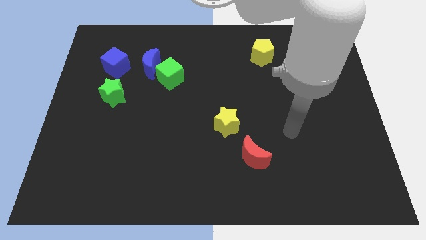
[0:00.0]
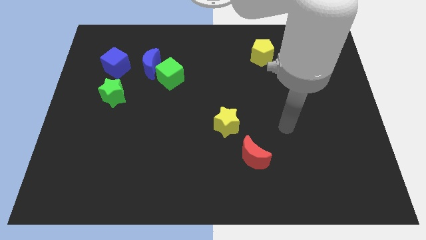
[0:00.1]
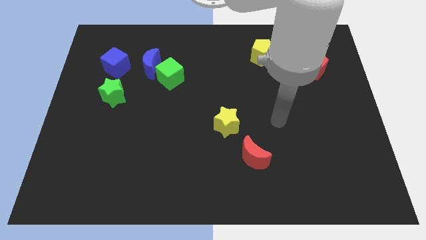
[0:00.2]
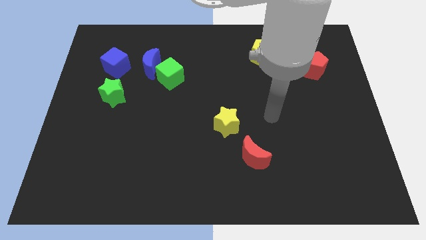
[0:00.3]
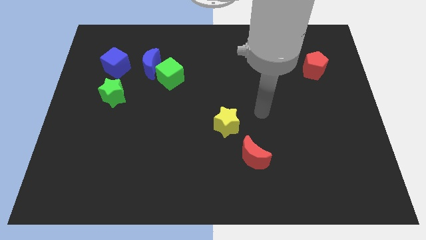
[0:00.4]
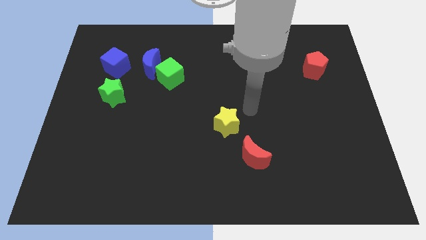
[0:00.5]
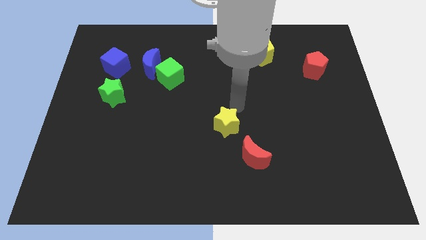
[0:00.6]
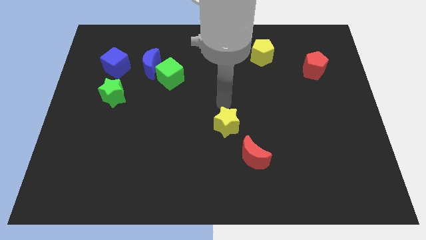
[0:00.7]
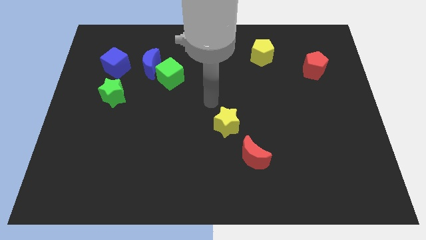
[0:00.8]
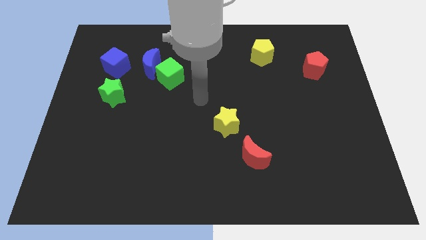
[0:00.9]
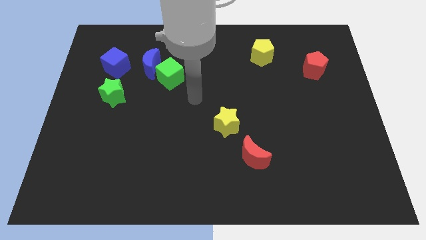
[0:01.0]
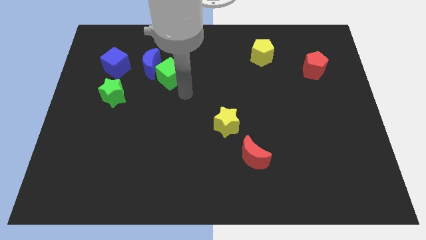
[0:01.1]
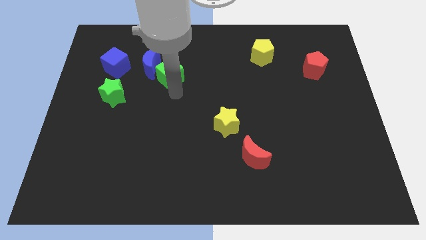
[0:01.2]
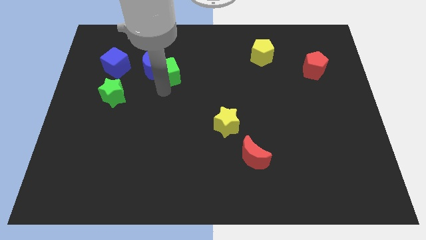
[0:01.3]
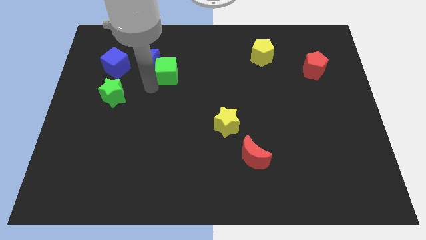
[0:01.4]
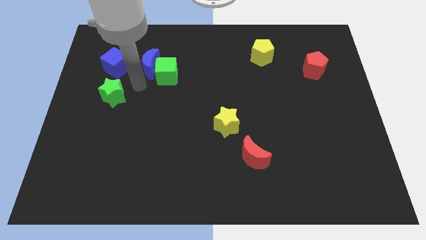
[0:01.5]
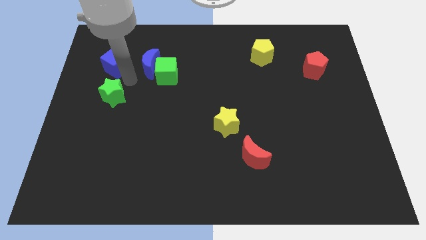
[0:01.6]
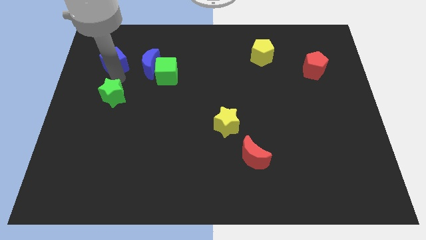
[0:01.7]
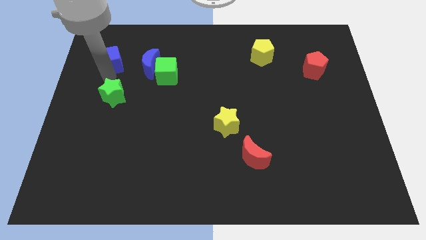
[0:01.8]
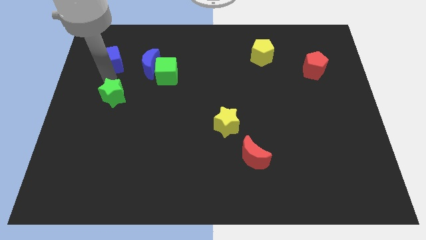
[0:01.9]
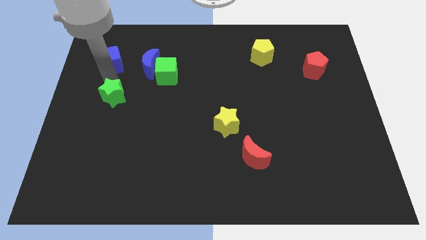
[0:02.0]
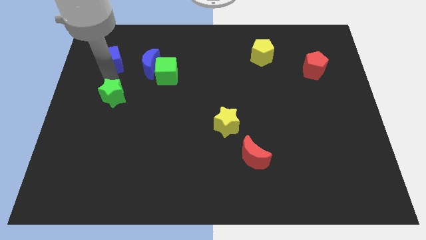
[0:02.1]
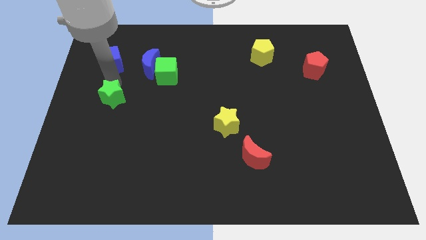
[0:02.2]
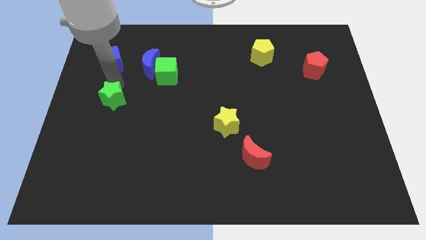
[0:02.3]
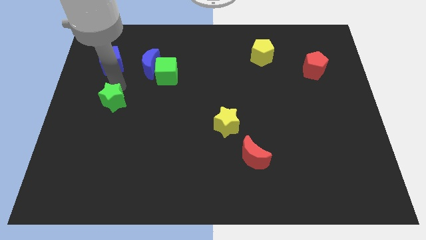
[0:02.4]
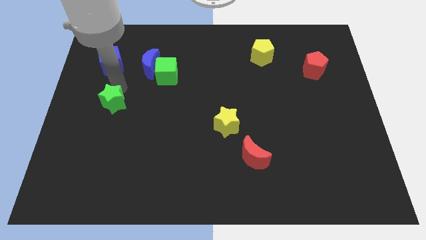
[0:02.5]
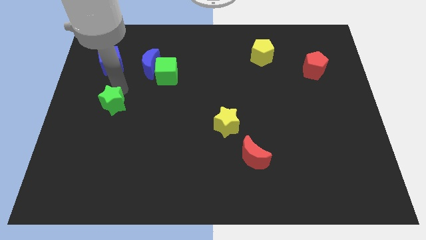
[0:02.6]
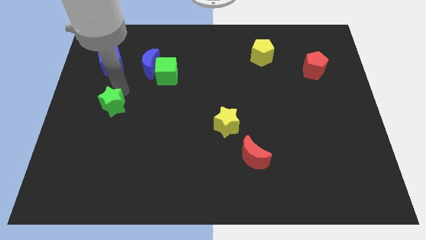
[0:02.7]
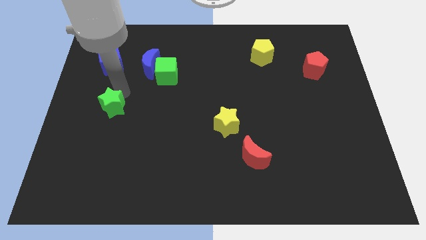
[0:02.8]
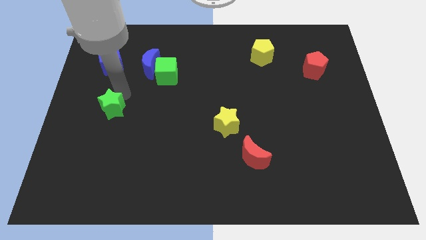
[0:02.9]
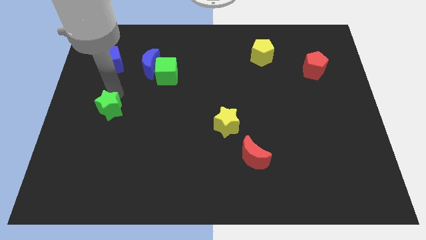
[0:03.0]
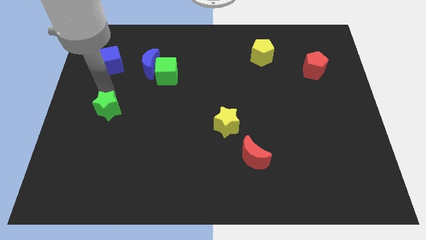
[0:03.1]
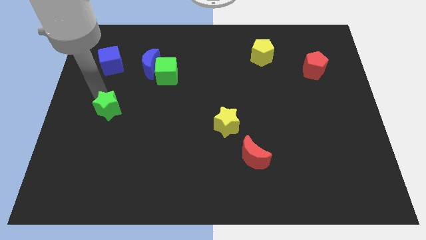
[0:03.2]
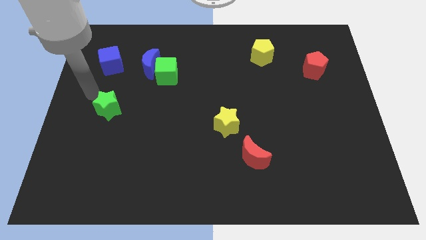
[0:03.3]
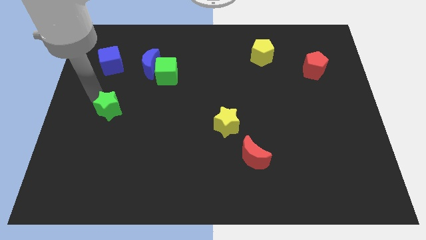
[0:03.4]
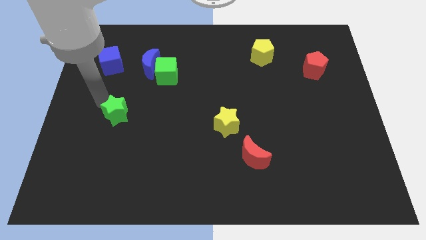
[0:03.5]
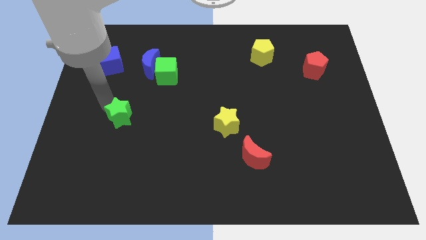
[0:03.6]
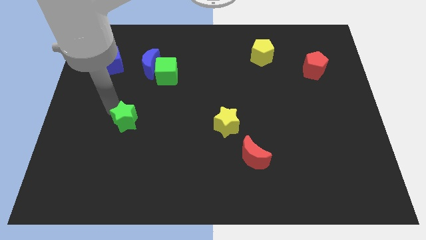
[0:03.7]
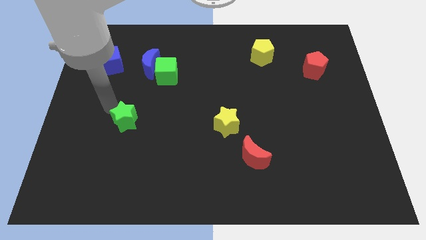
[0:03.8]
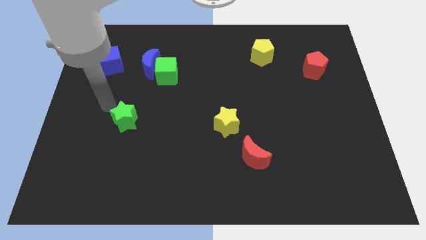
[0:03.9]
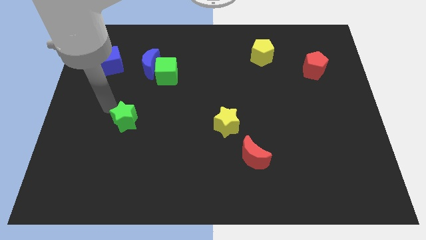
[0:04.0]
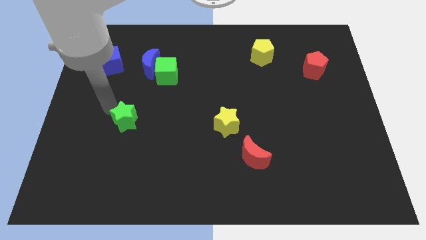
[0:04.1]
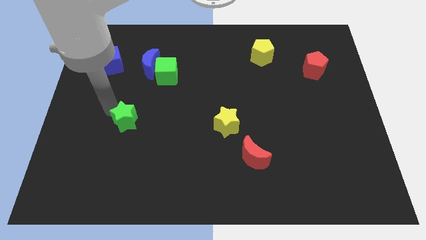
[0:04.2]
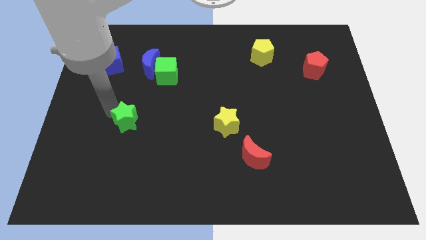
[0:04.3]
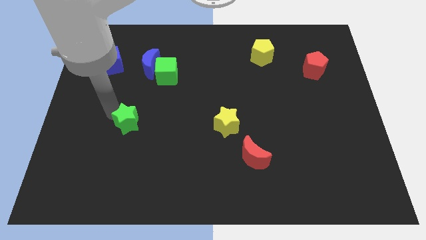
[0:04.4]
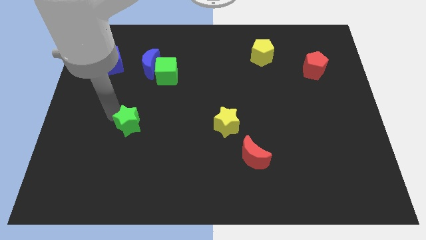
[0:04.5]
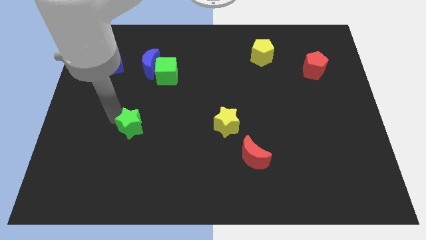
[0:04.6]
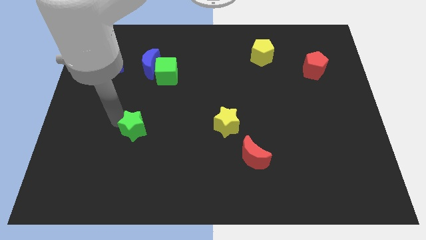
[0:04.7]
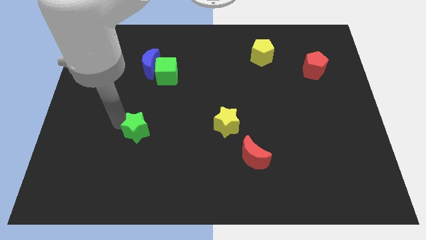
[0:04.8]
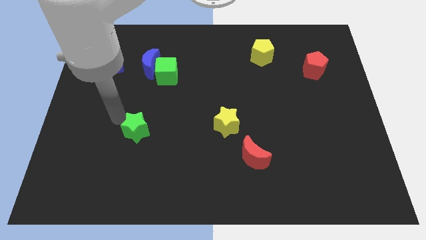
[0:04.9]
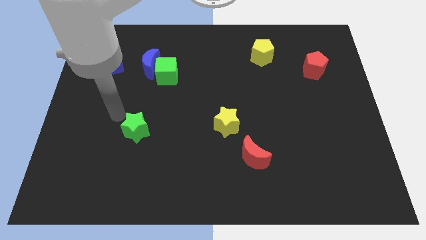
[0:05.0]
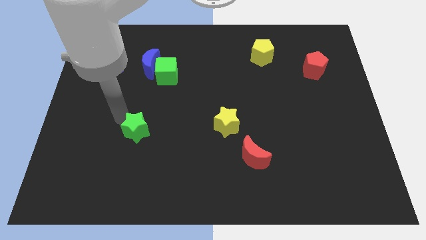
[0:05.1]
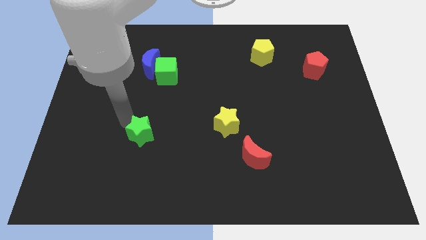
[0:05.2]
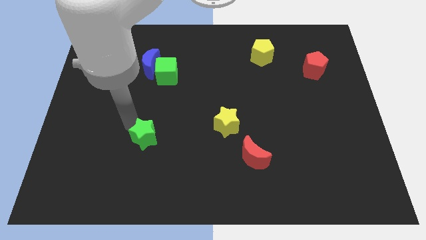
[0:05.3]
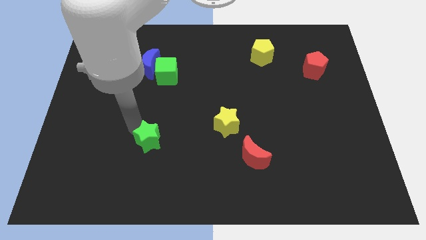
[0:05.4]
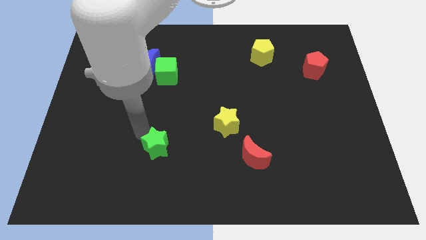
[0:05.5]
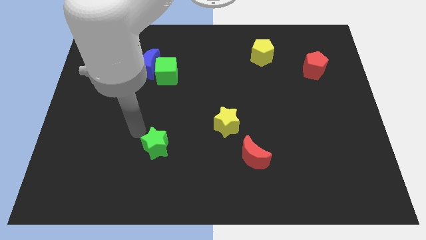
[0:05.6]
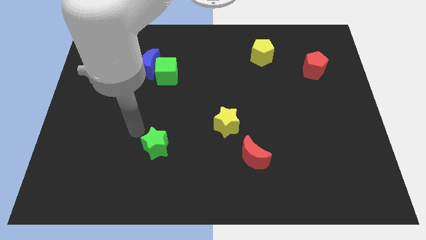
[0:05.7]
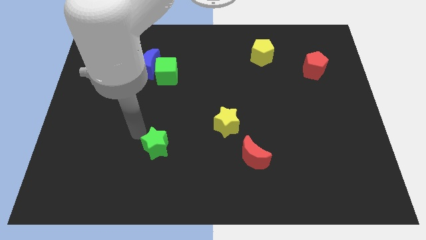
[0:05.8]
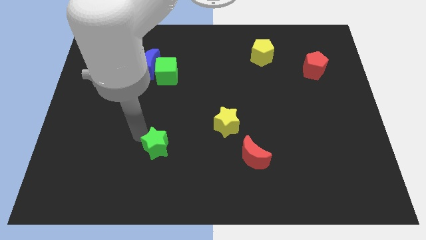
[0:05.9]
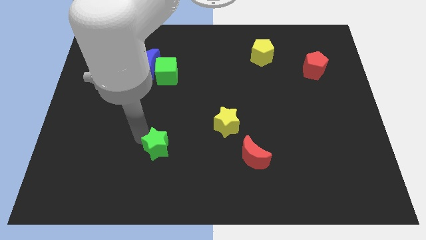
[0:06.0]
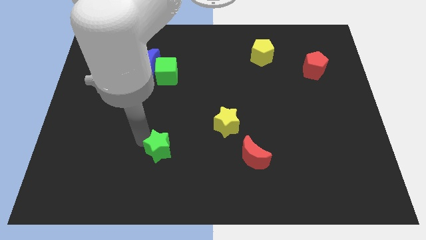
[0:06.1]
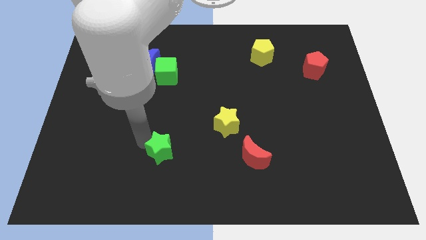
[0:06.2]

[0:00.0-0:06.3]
move the green star down and right diagonally

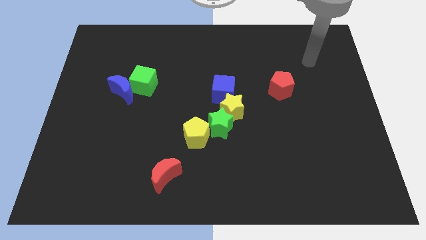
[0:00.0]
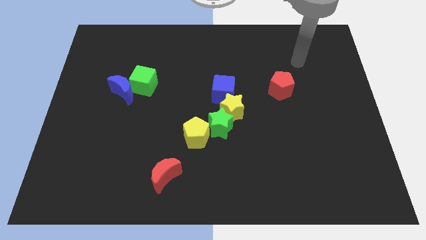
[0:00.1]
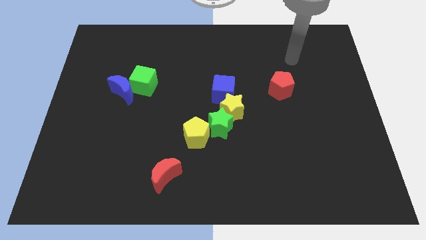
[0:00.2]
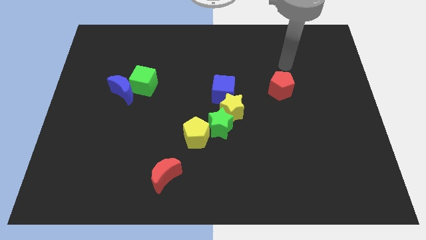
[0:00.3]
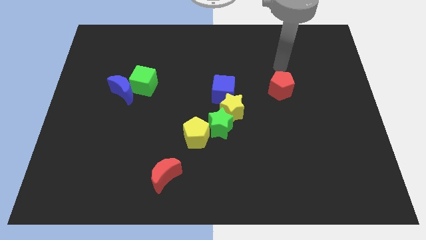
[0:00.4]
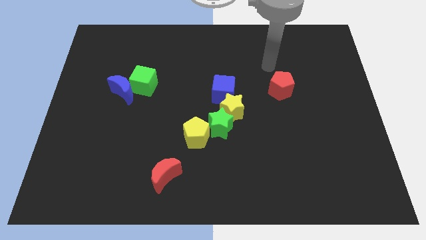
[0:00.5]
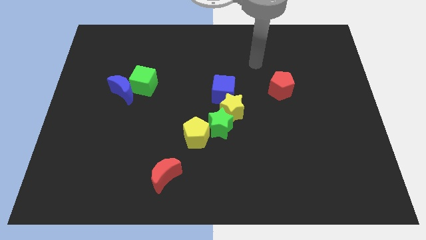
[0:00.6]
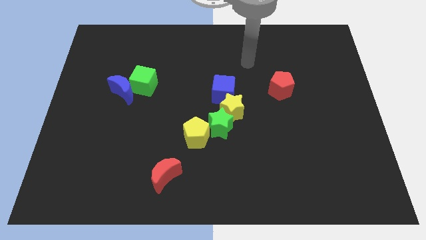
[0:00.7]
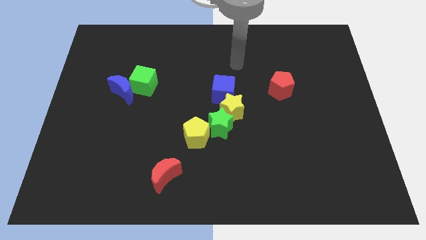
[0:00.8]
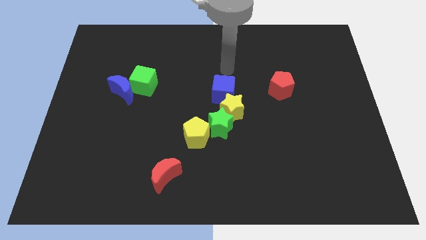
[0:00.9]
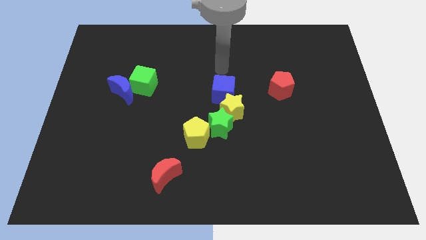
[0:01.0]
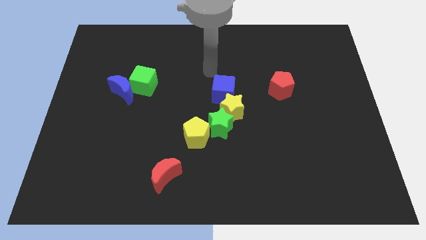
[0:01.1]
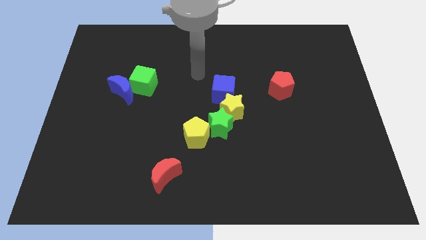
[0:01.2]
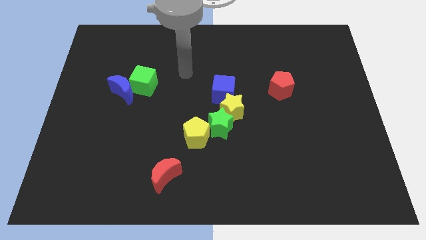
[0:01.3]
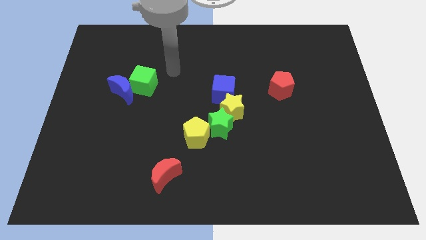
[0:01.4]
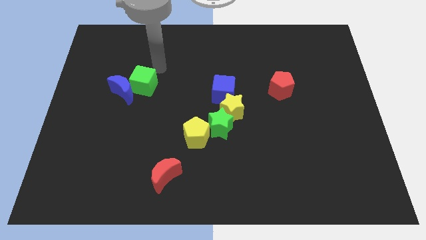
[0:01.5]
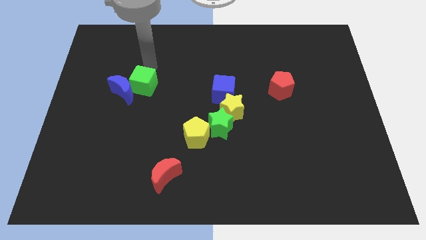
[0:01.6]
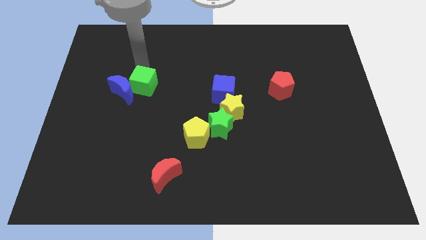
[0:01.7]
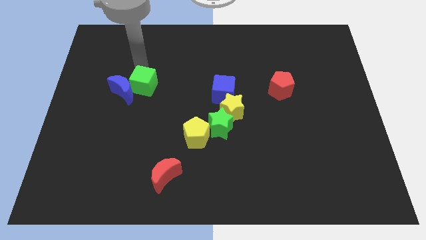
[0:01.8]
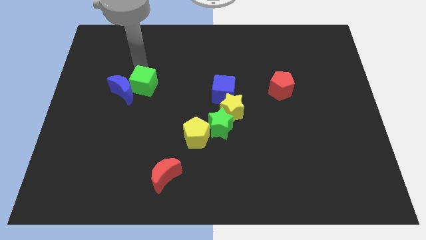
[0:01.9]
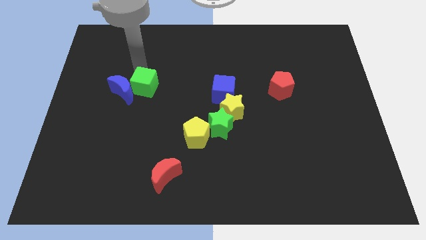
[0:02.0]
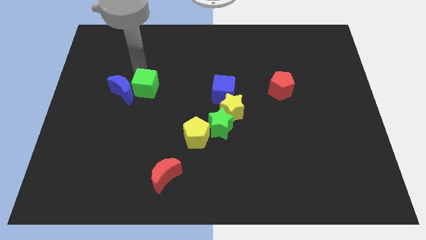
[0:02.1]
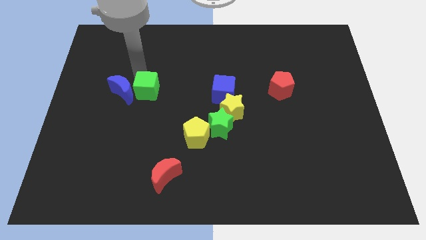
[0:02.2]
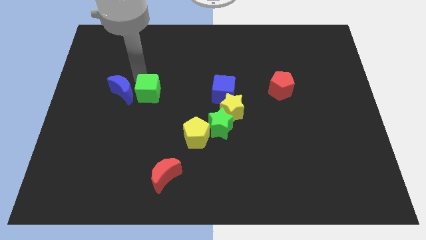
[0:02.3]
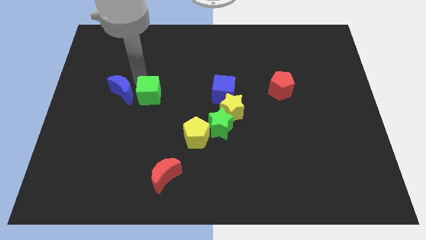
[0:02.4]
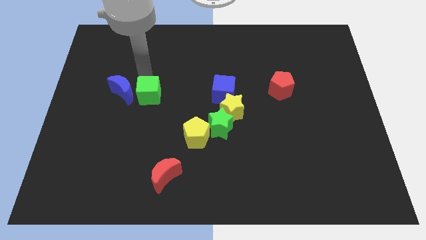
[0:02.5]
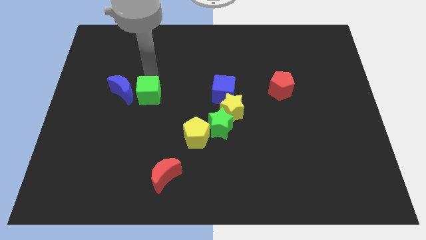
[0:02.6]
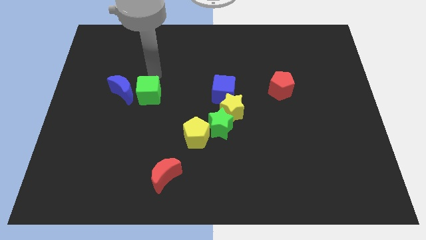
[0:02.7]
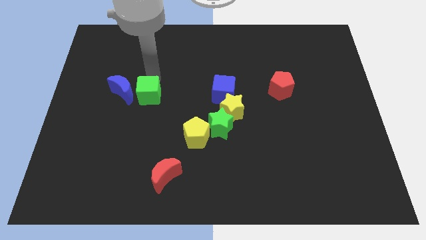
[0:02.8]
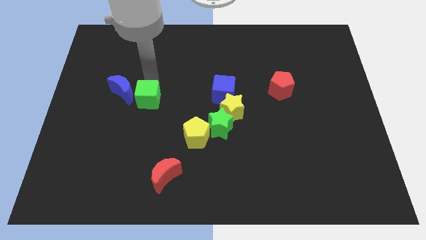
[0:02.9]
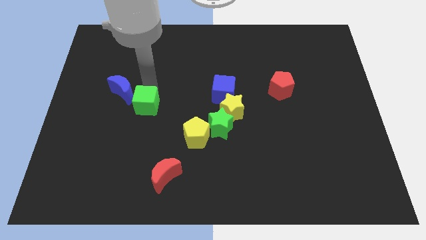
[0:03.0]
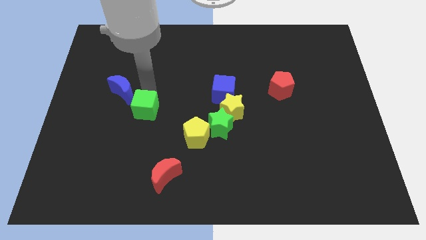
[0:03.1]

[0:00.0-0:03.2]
push the green cube down a little bit
